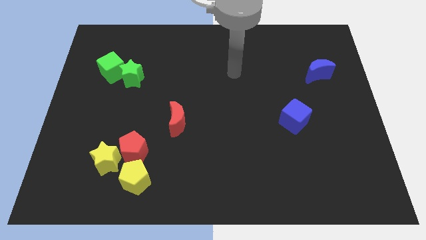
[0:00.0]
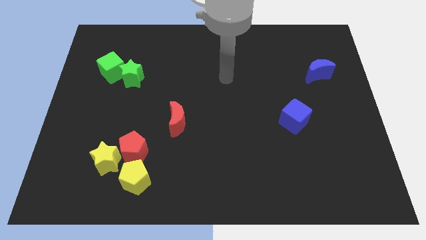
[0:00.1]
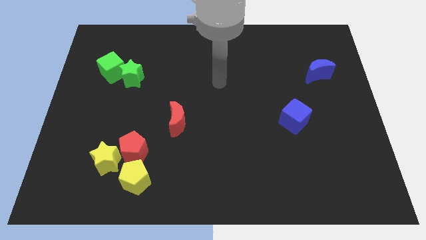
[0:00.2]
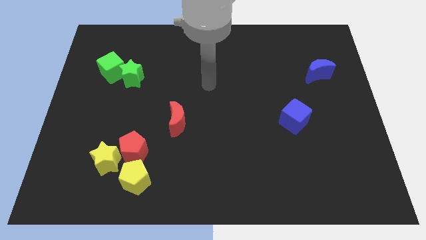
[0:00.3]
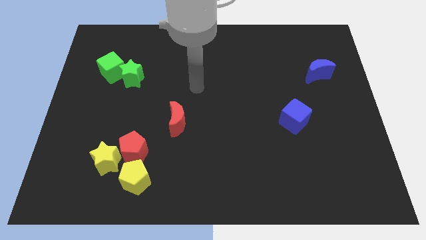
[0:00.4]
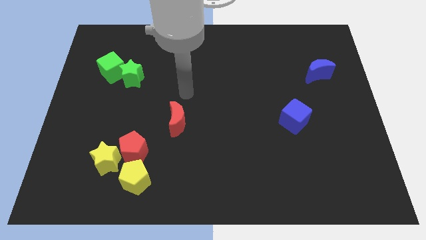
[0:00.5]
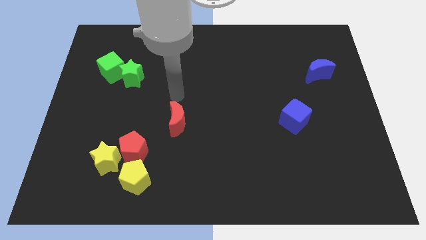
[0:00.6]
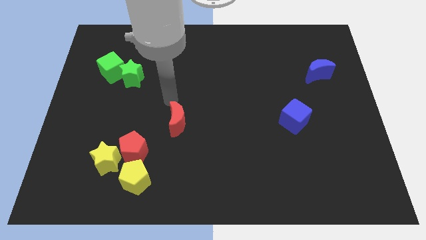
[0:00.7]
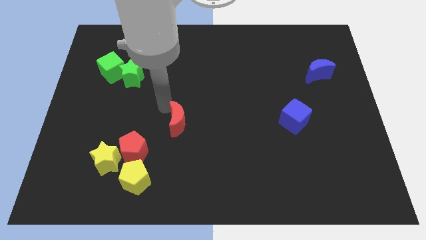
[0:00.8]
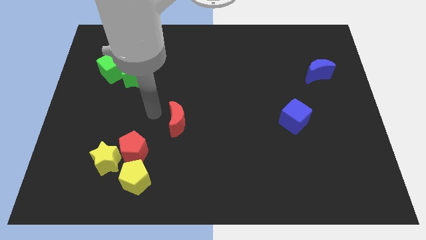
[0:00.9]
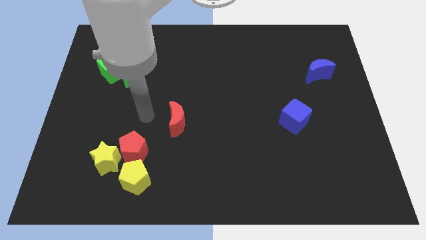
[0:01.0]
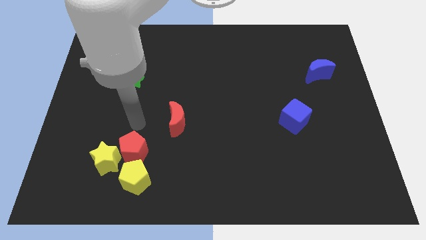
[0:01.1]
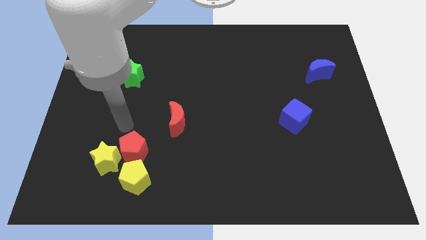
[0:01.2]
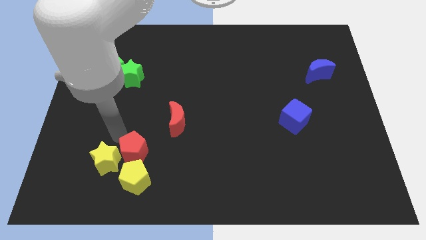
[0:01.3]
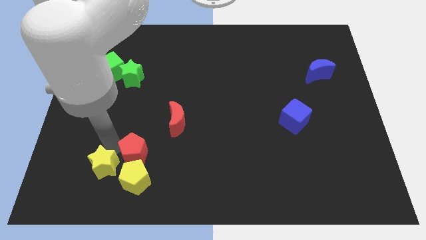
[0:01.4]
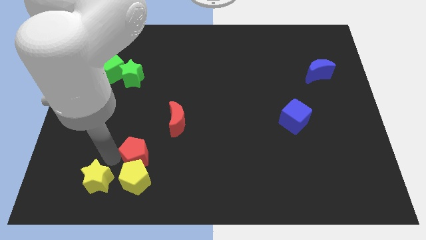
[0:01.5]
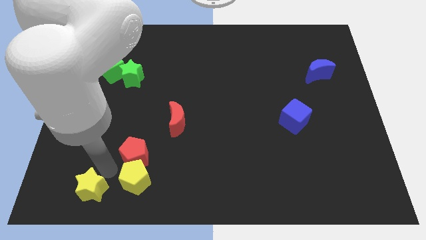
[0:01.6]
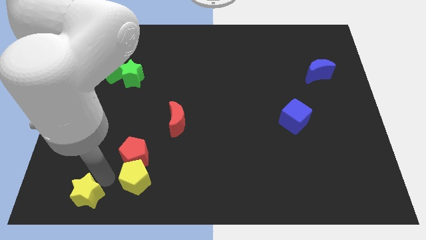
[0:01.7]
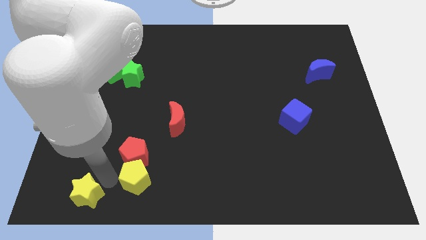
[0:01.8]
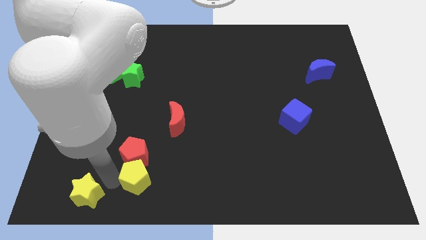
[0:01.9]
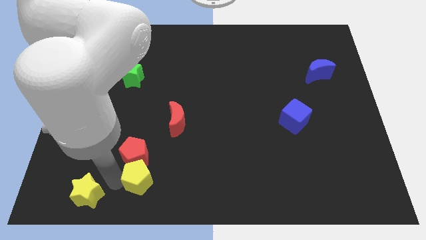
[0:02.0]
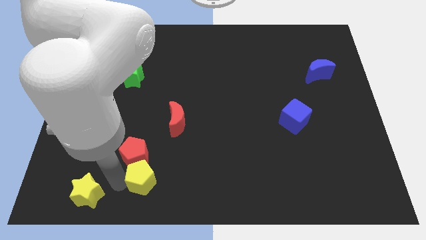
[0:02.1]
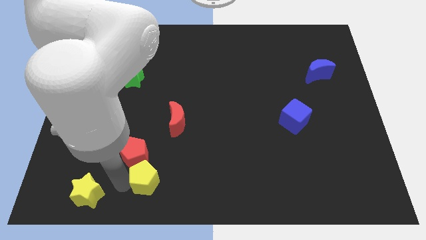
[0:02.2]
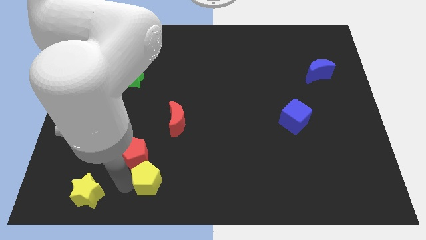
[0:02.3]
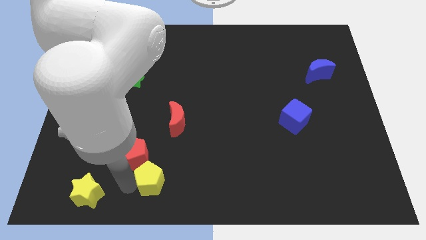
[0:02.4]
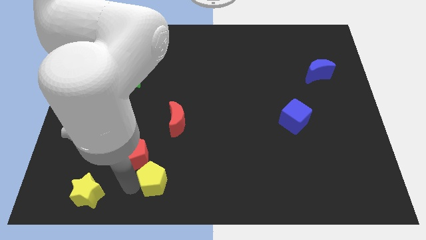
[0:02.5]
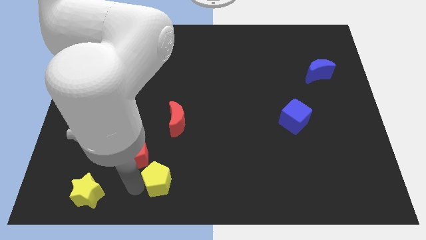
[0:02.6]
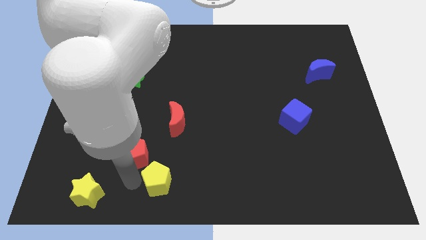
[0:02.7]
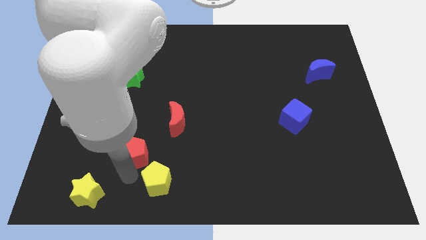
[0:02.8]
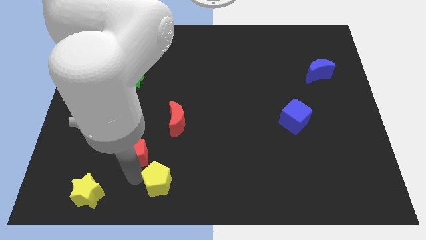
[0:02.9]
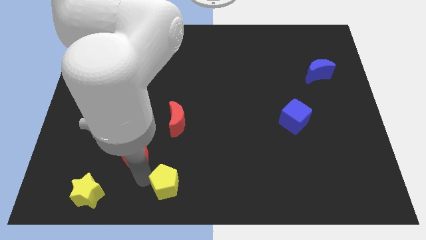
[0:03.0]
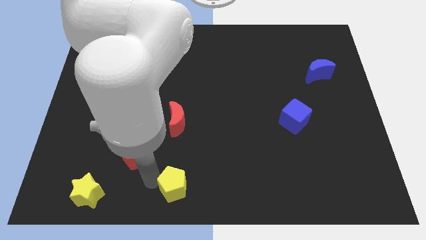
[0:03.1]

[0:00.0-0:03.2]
slide the yellow pentagon right a little

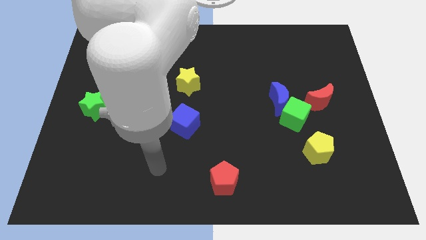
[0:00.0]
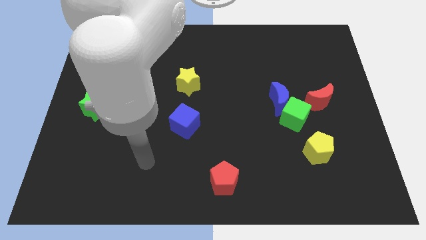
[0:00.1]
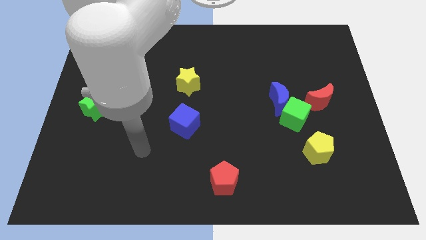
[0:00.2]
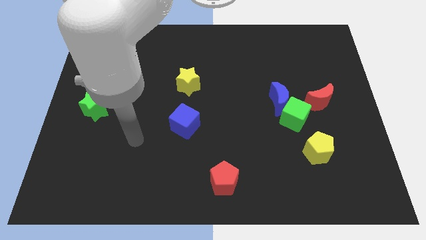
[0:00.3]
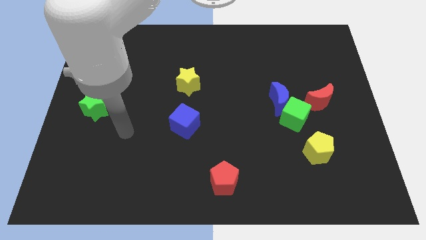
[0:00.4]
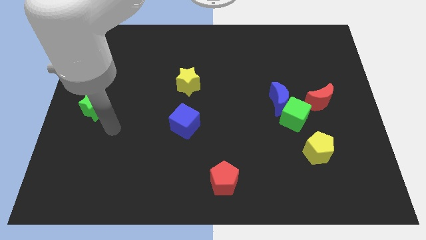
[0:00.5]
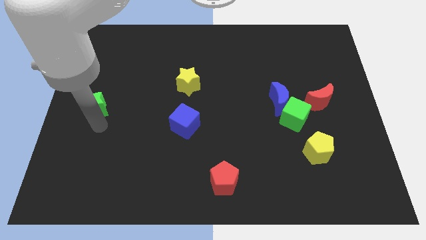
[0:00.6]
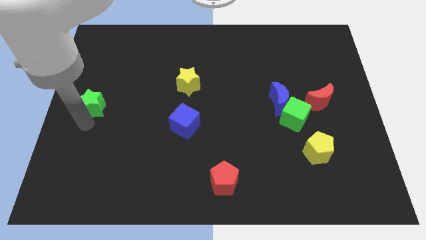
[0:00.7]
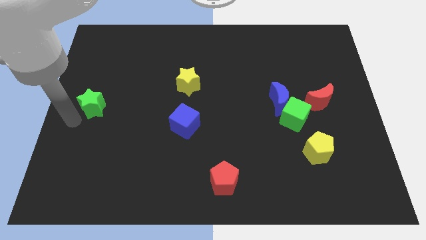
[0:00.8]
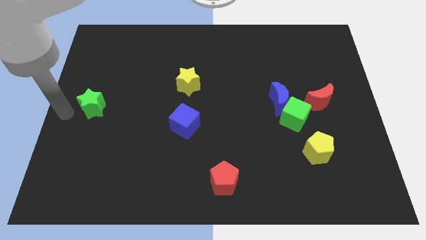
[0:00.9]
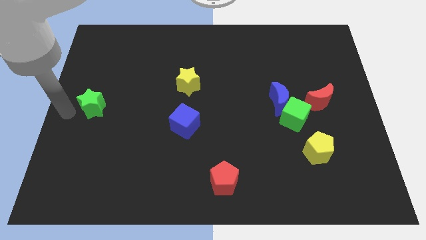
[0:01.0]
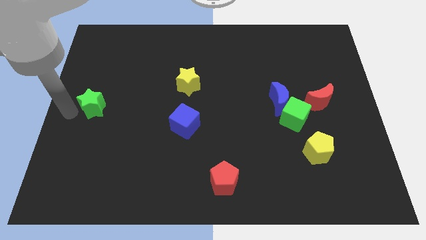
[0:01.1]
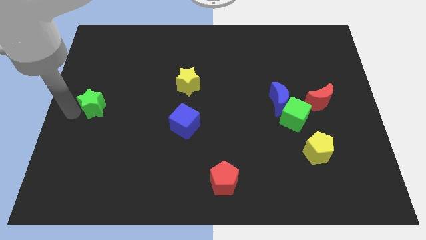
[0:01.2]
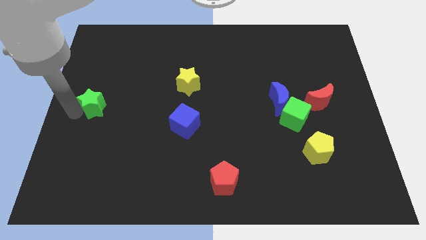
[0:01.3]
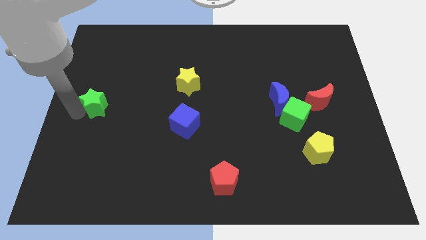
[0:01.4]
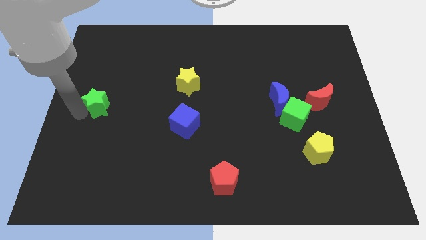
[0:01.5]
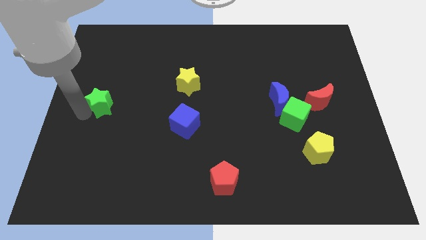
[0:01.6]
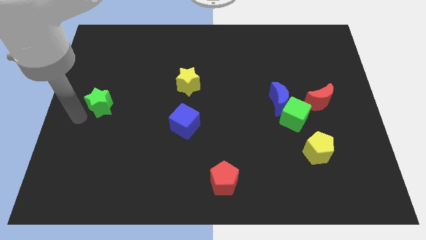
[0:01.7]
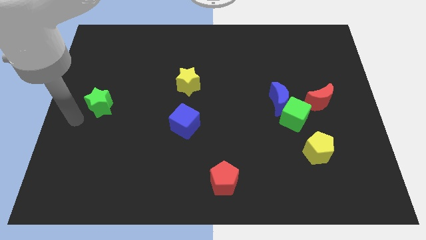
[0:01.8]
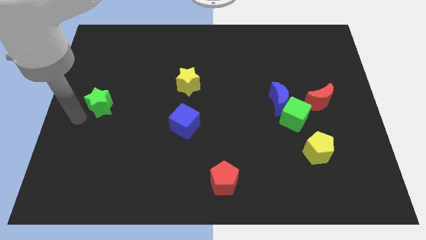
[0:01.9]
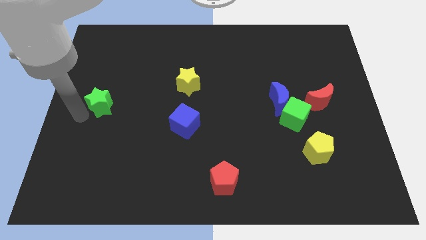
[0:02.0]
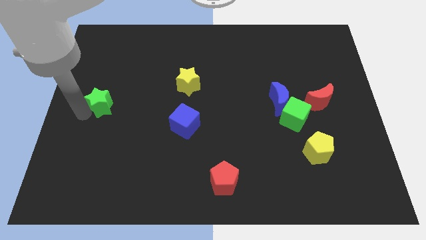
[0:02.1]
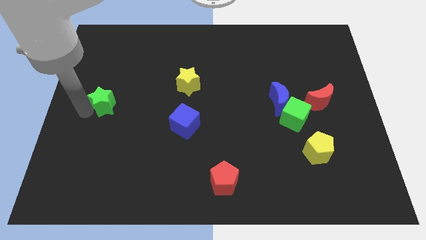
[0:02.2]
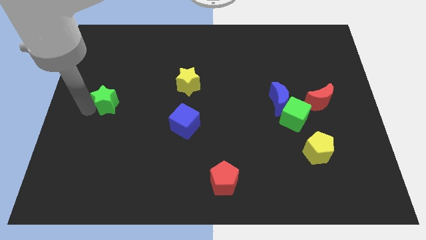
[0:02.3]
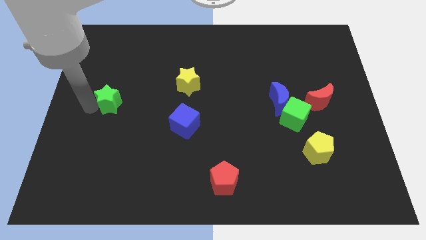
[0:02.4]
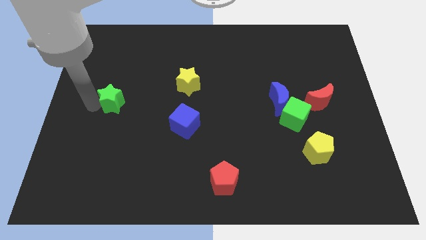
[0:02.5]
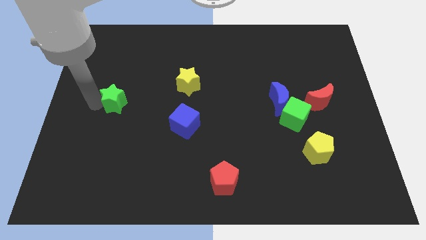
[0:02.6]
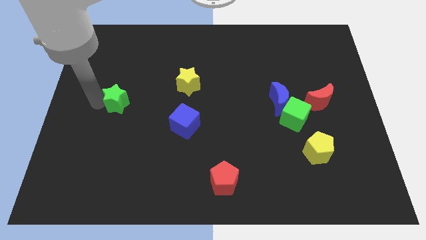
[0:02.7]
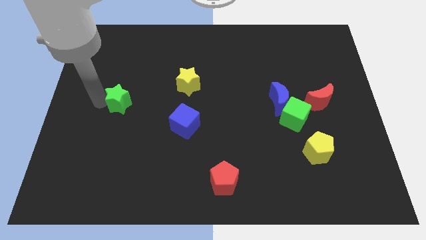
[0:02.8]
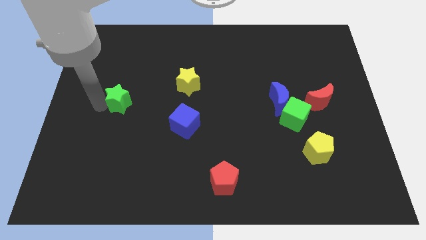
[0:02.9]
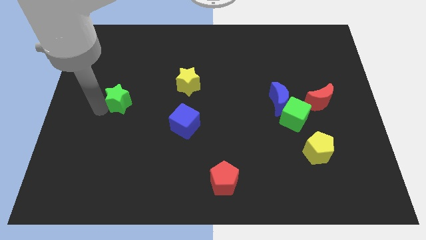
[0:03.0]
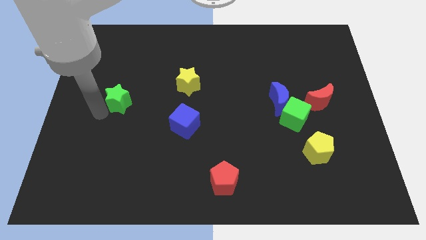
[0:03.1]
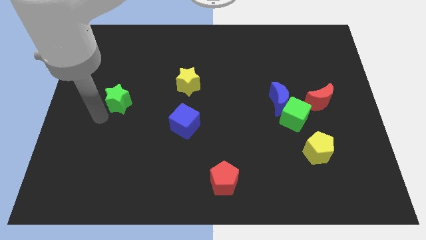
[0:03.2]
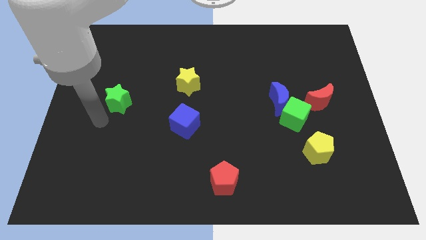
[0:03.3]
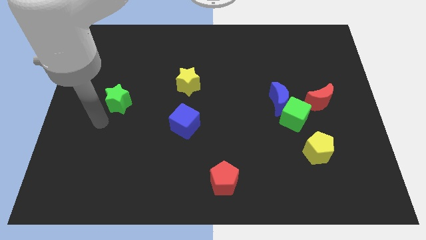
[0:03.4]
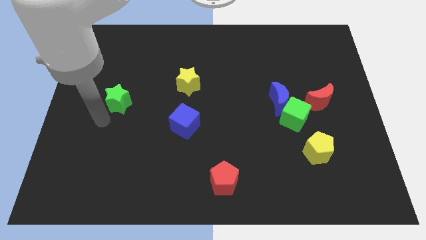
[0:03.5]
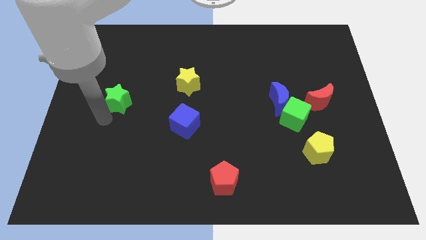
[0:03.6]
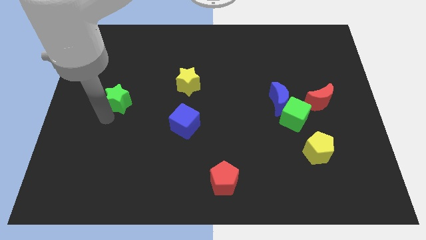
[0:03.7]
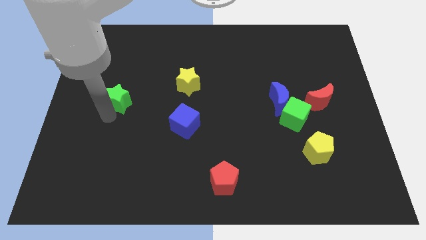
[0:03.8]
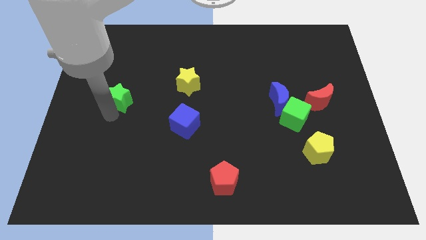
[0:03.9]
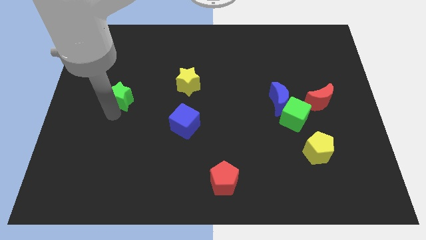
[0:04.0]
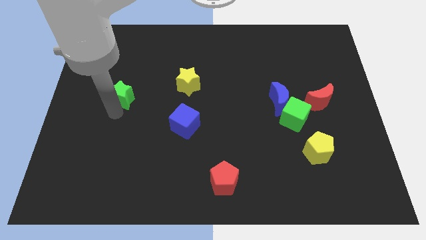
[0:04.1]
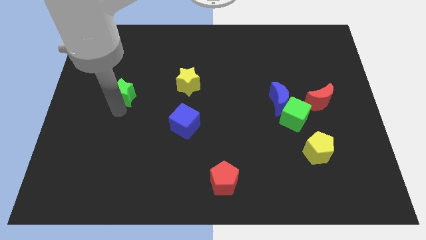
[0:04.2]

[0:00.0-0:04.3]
push the green star somewhat up and to the right diagonally

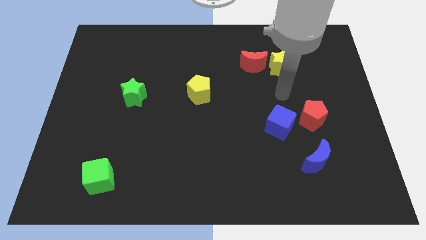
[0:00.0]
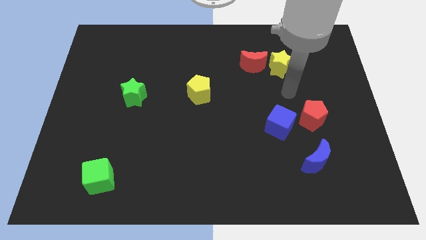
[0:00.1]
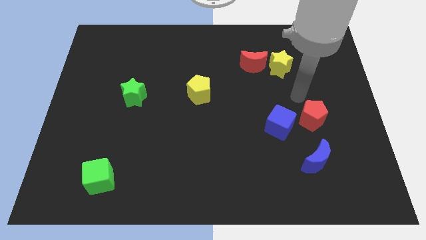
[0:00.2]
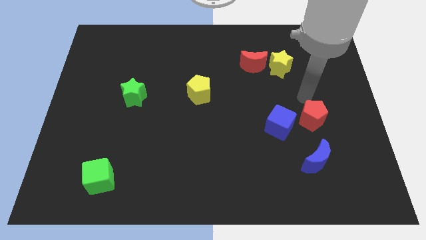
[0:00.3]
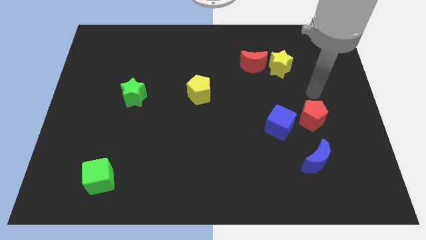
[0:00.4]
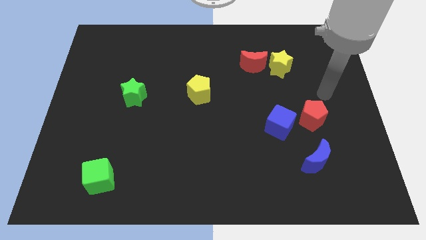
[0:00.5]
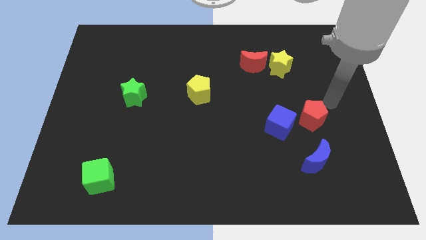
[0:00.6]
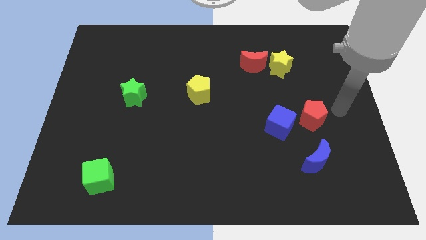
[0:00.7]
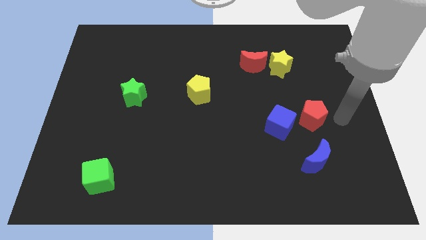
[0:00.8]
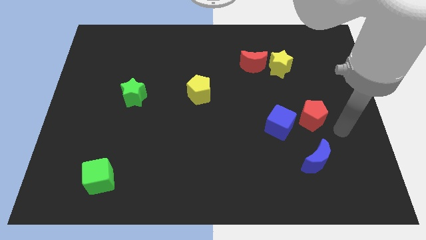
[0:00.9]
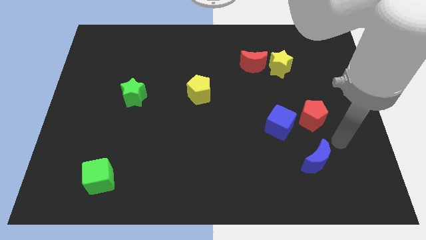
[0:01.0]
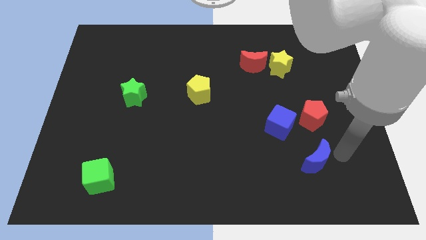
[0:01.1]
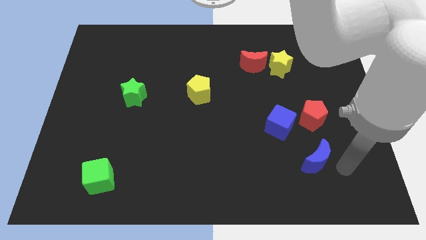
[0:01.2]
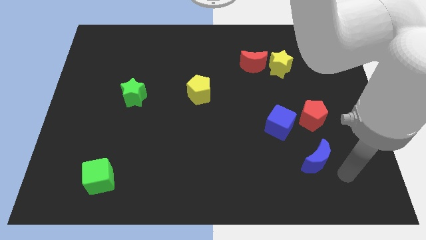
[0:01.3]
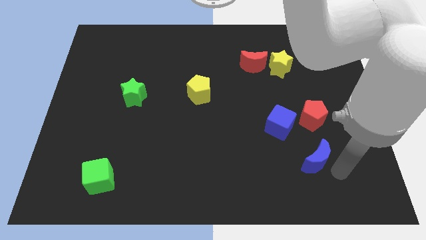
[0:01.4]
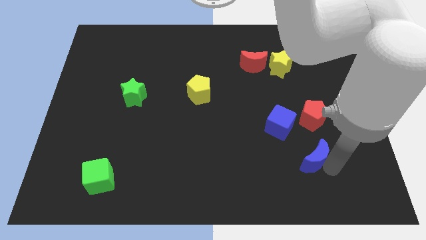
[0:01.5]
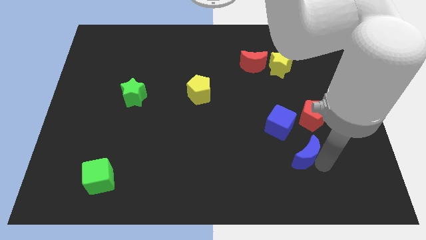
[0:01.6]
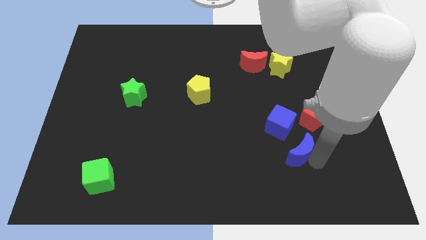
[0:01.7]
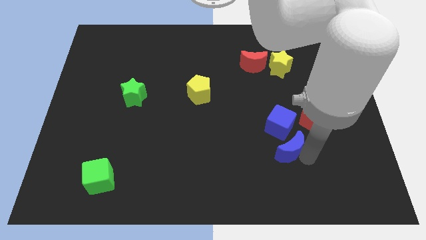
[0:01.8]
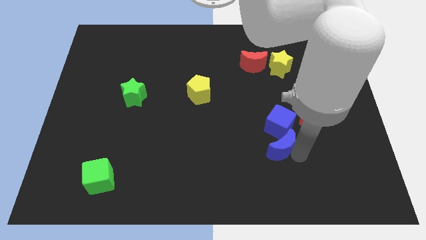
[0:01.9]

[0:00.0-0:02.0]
slide the blue moon upwards and to the left diagonally a little bit
